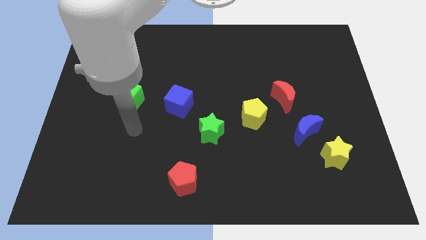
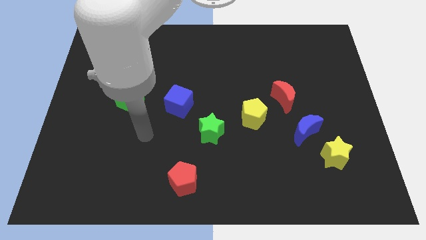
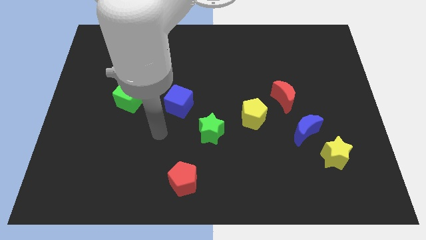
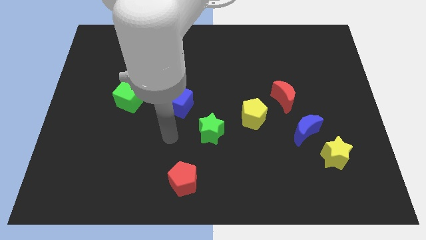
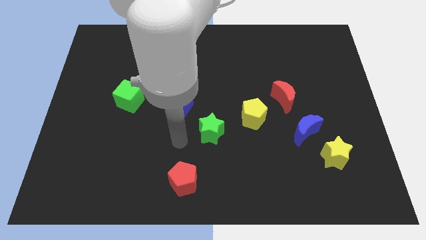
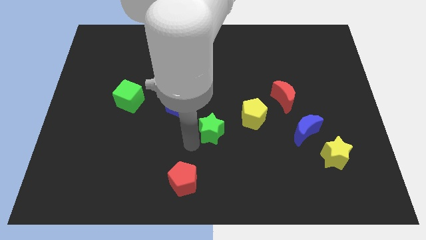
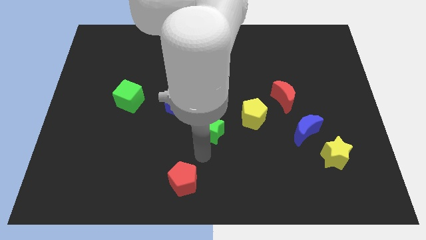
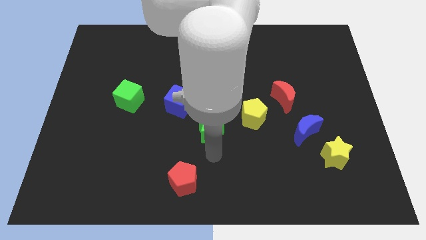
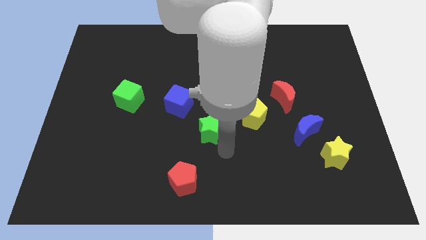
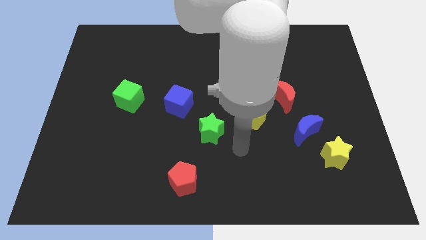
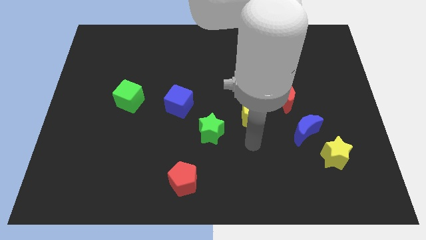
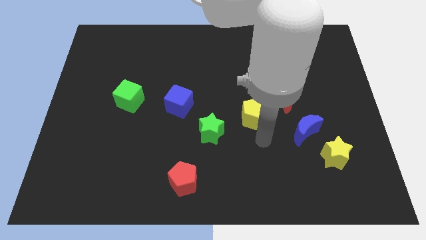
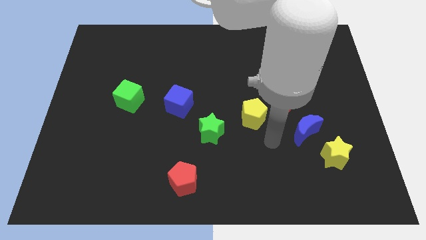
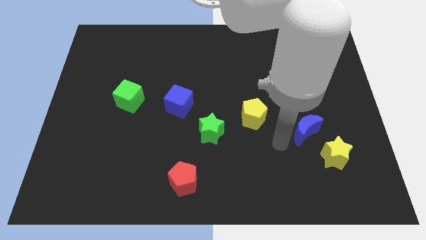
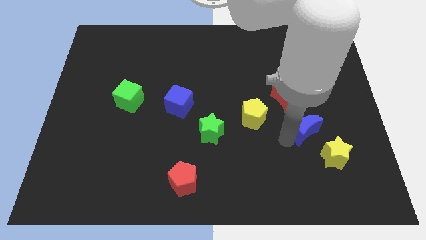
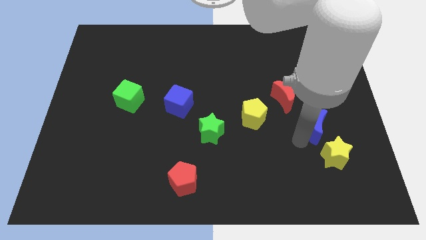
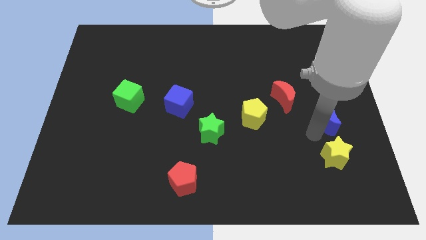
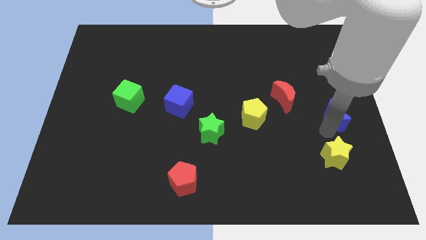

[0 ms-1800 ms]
pull the yellow star apart from the blue moon

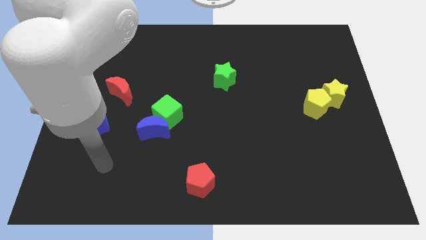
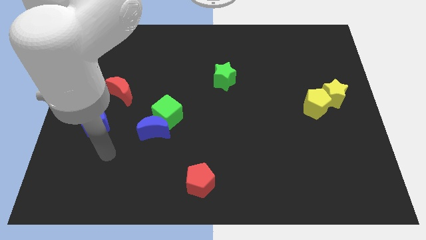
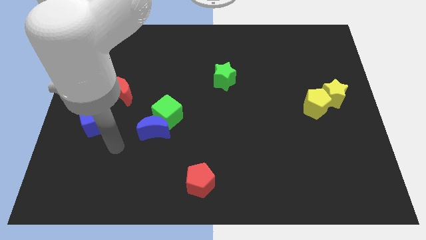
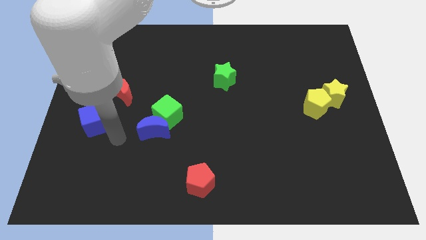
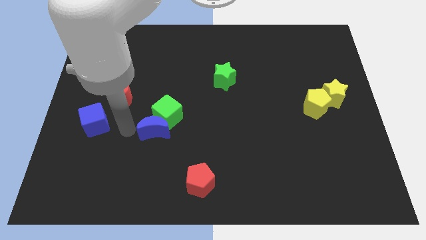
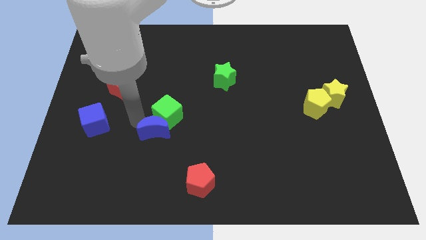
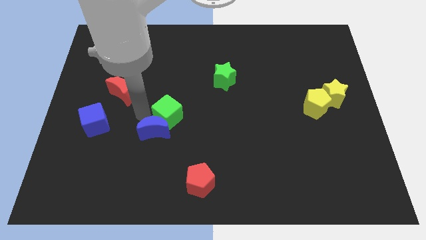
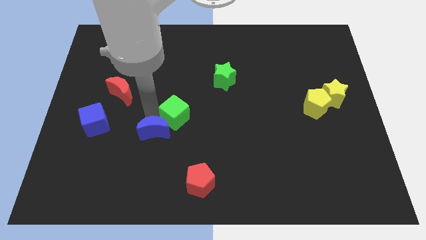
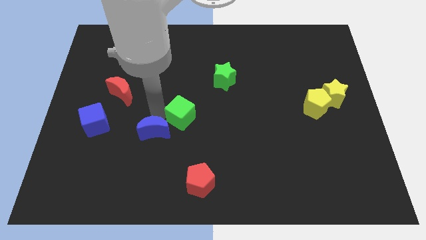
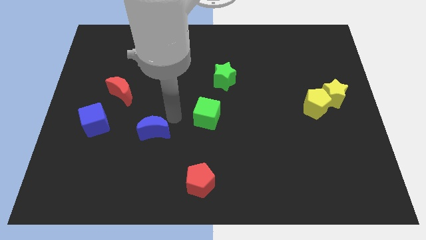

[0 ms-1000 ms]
separate the blue moon from the green cube

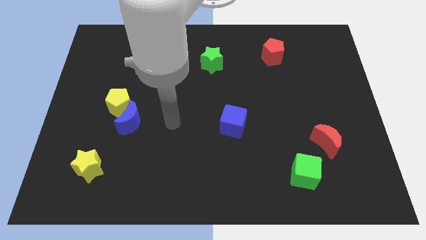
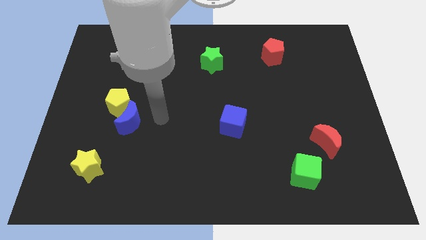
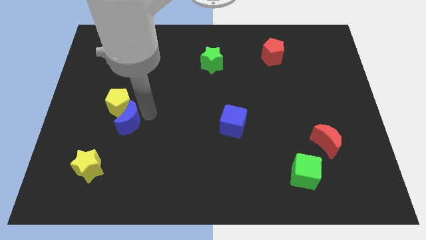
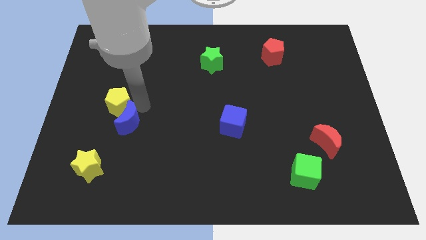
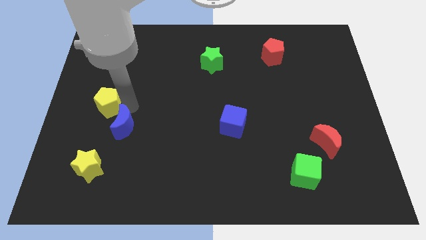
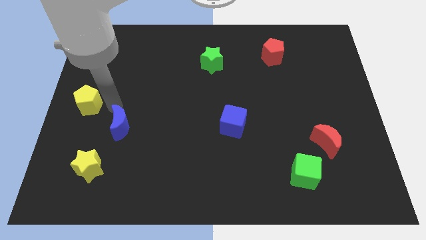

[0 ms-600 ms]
pull the blue moon apart from the yellow pentagon

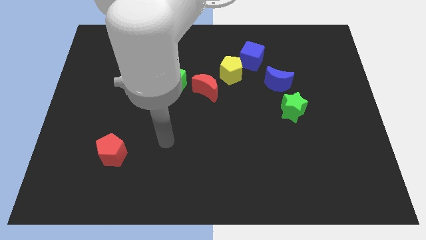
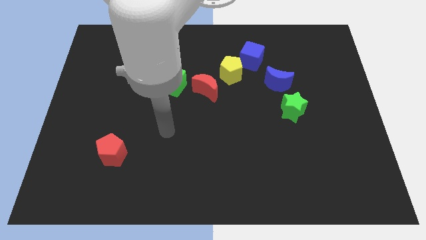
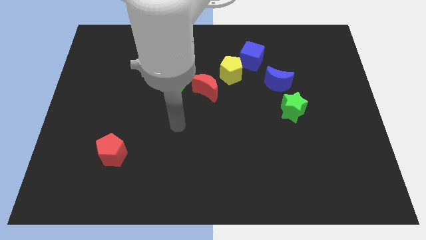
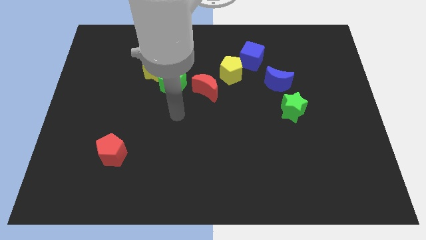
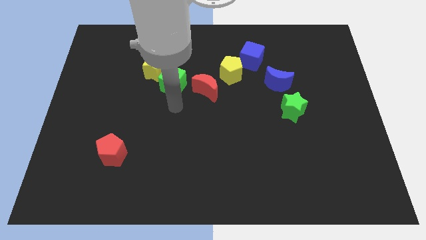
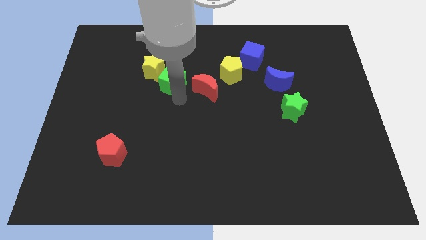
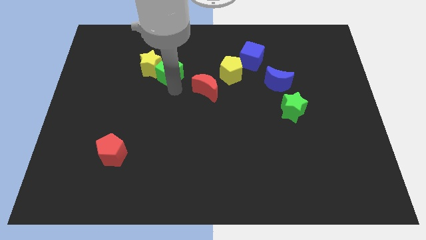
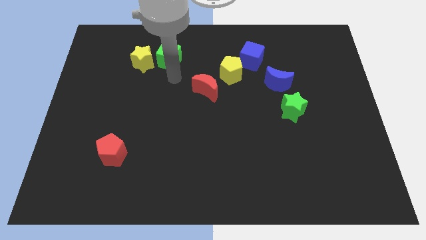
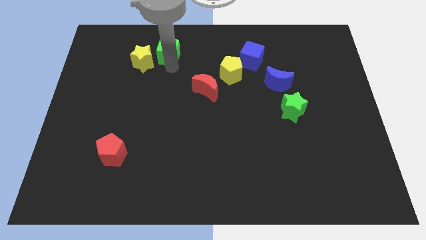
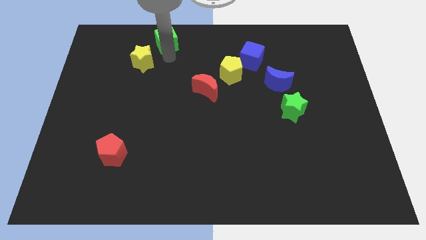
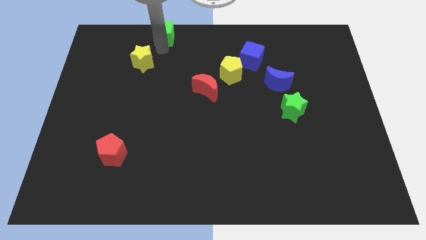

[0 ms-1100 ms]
separate the yellow star from the green cube

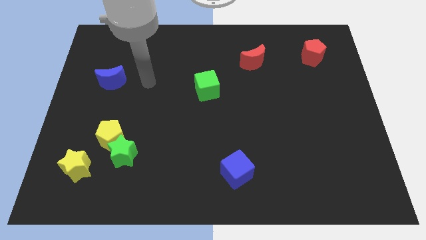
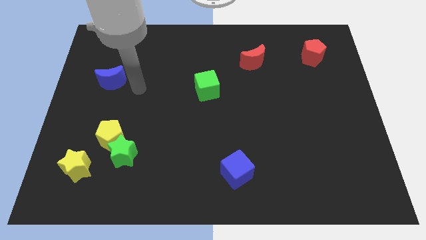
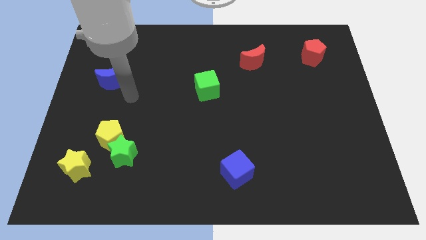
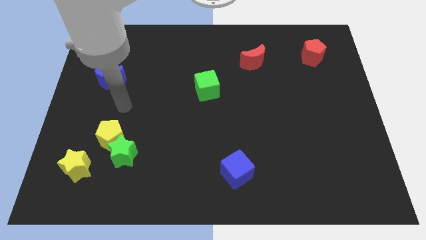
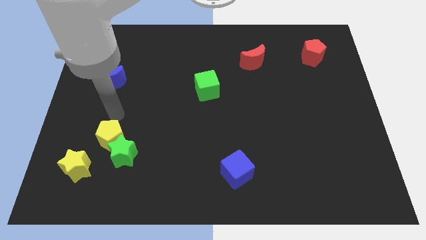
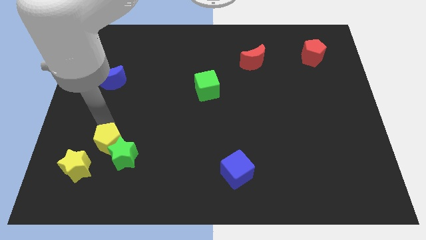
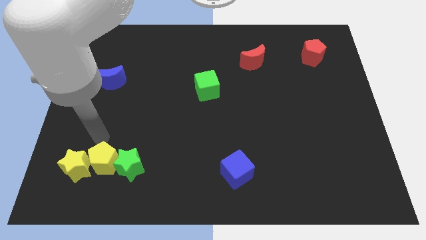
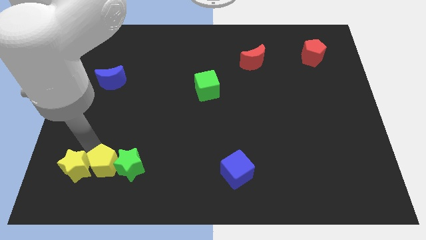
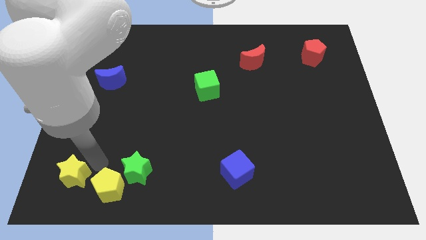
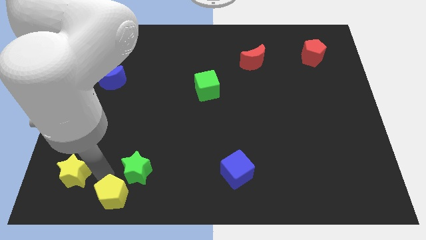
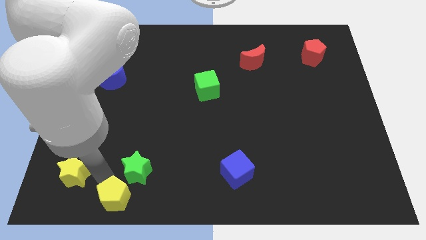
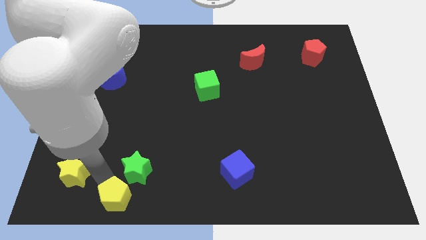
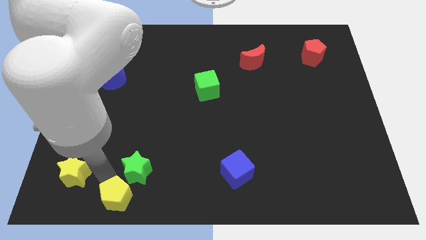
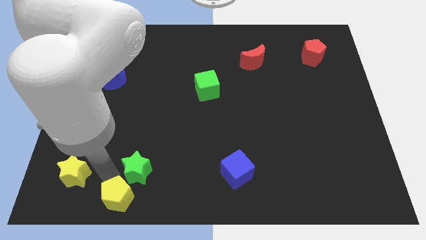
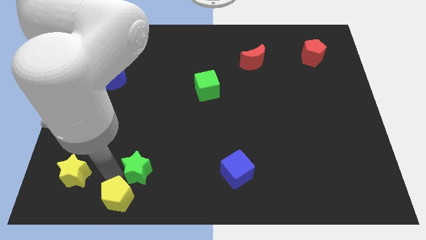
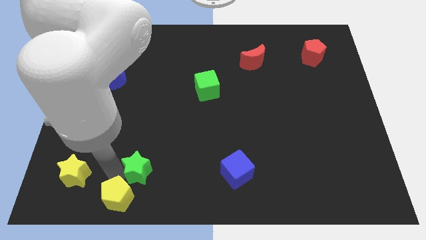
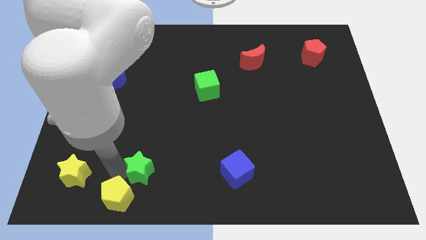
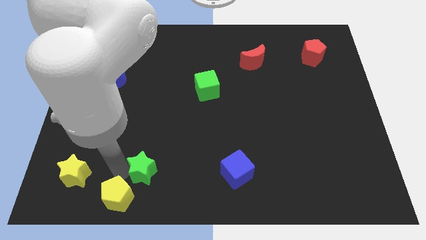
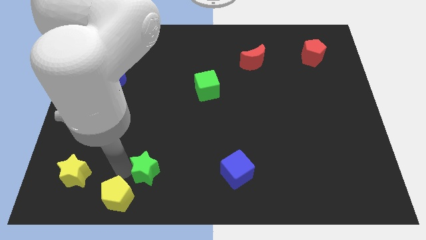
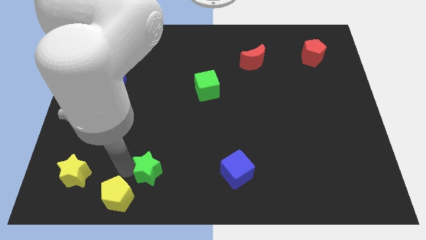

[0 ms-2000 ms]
move the green star away from the yellow pentagon and yellow star

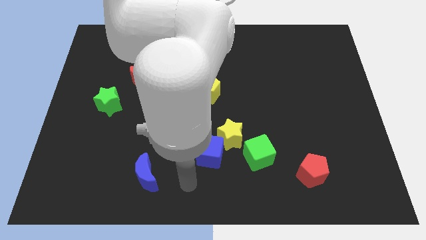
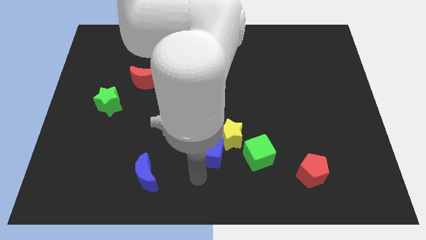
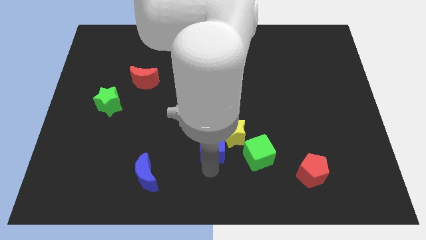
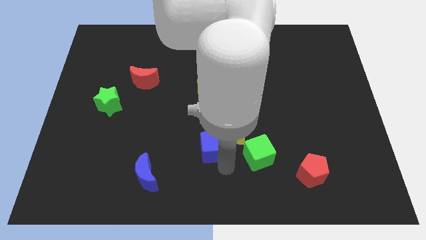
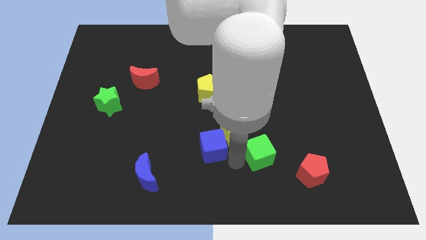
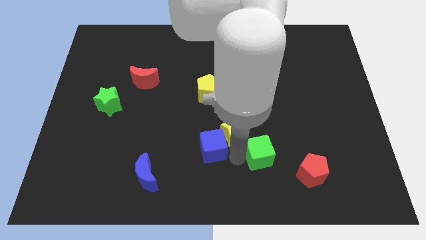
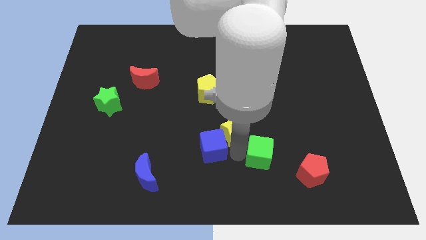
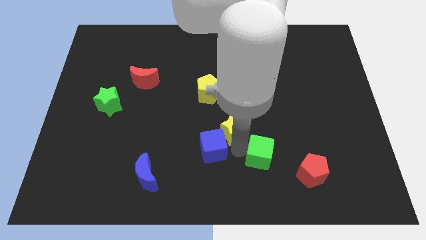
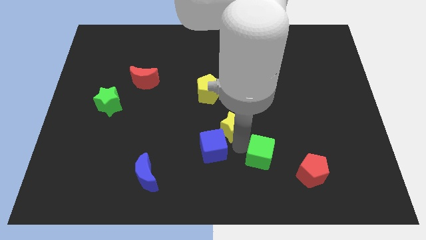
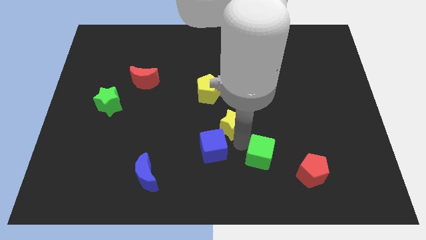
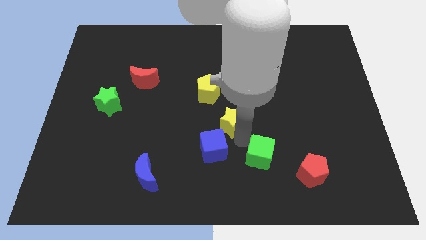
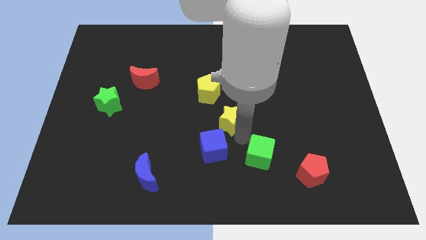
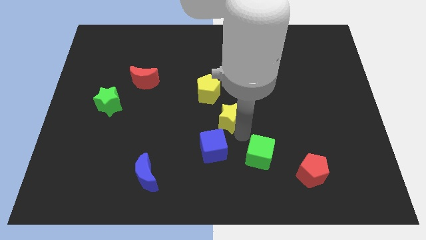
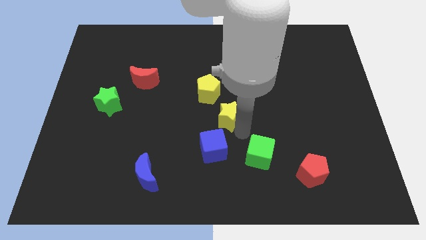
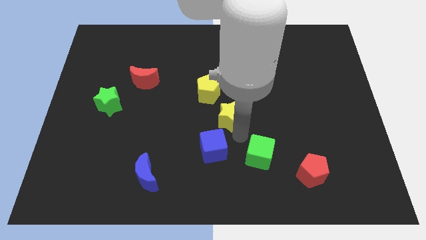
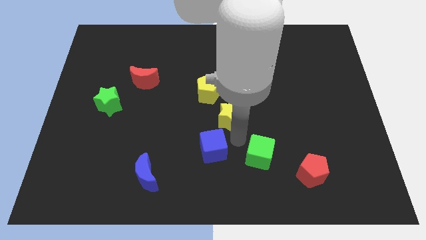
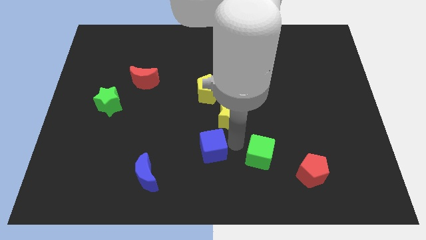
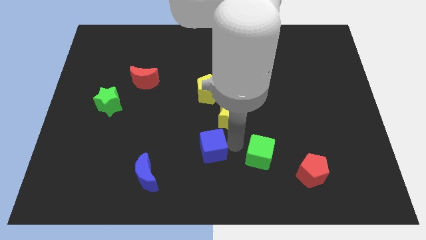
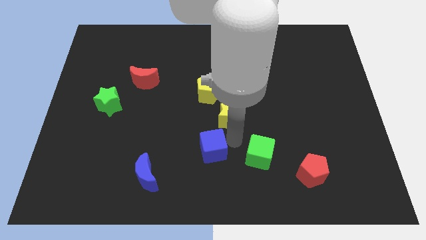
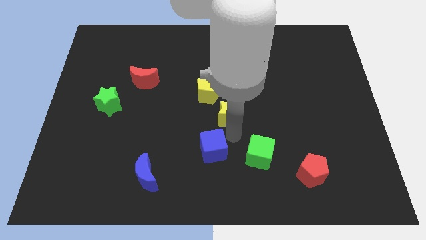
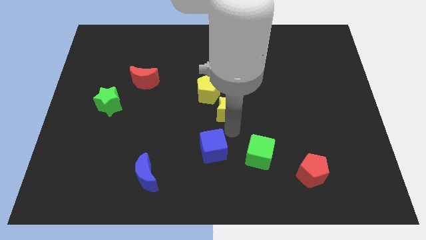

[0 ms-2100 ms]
pull the yellow star apart from the blue cube and green cube

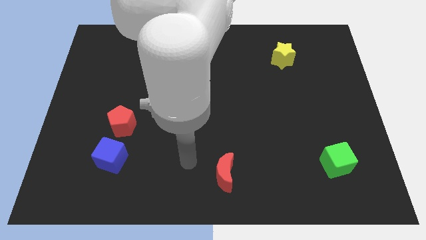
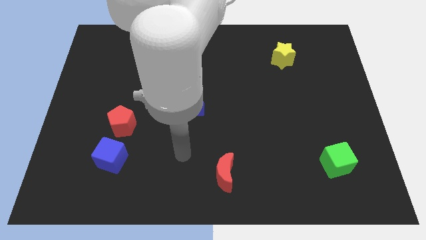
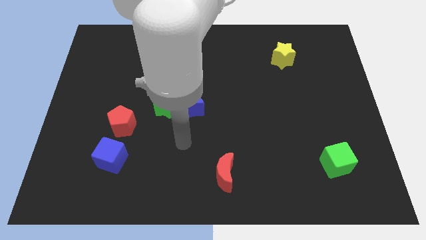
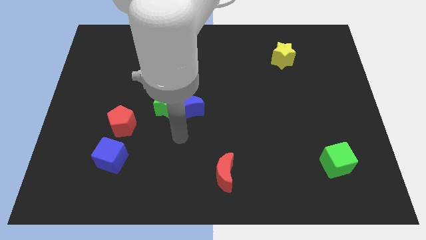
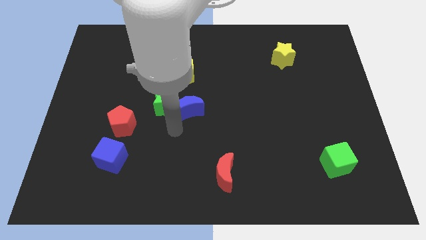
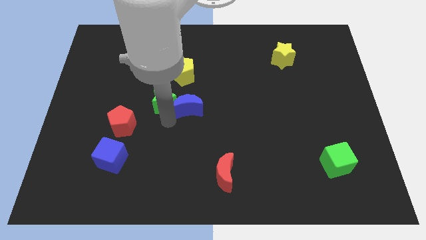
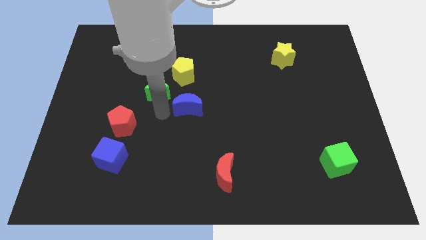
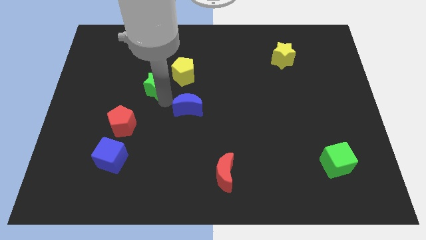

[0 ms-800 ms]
pull the blue moon apart from the green star

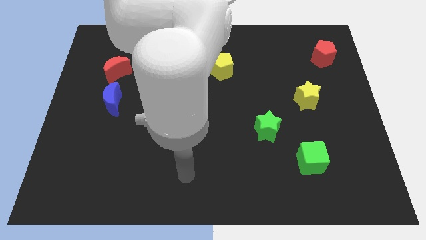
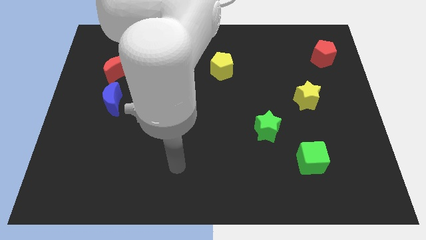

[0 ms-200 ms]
separate the red moon from the blue moon
